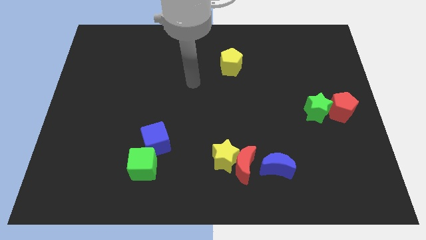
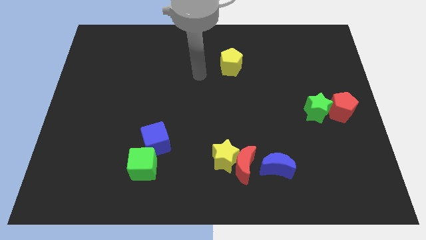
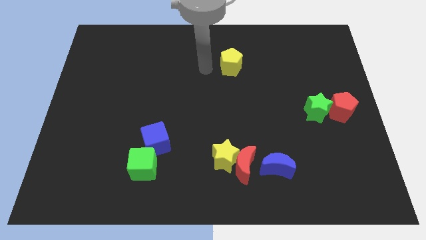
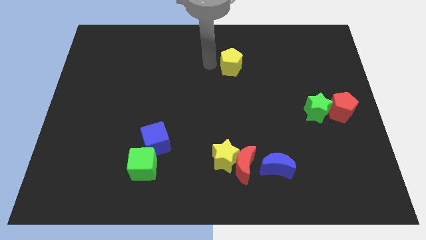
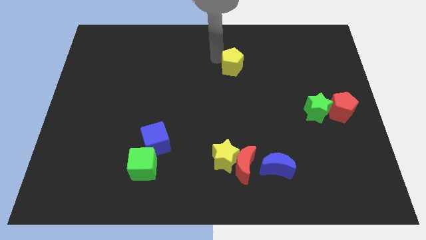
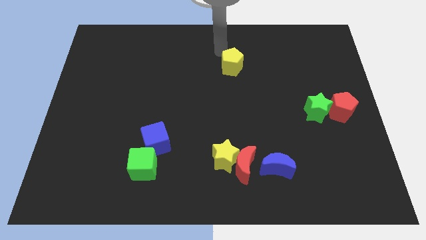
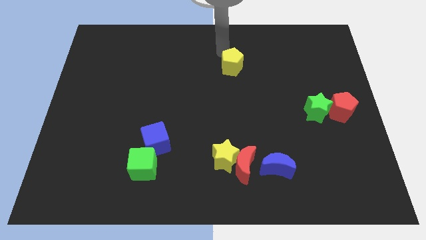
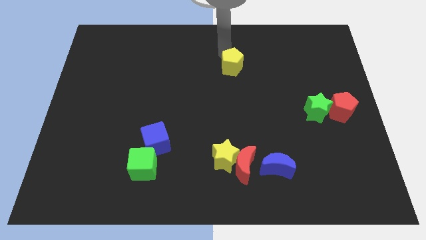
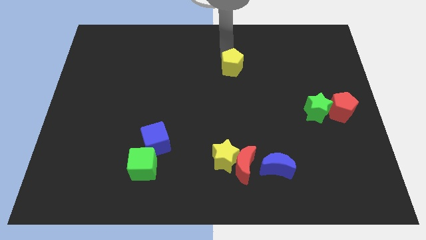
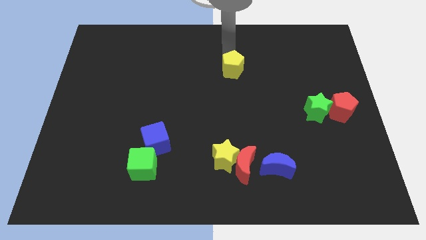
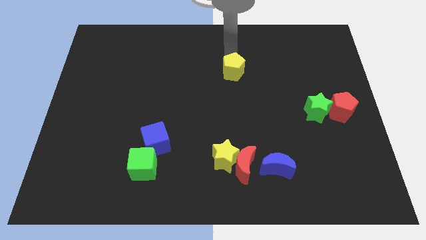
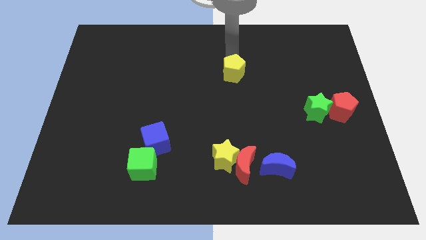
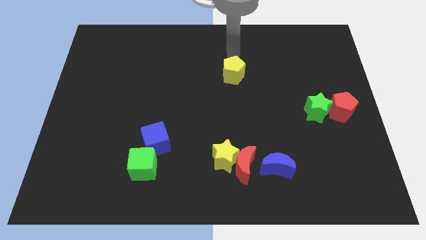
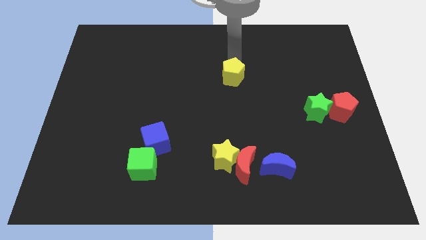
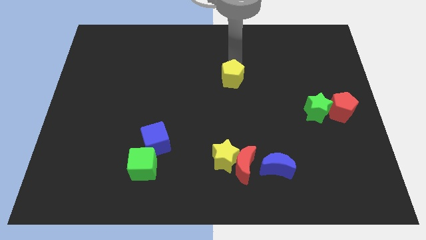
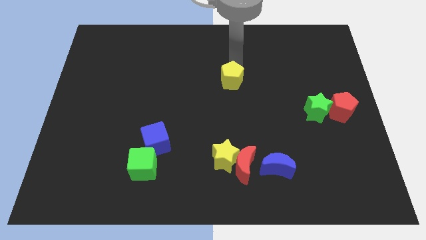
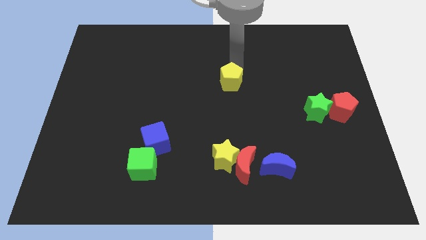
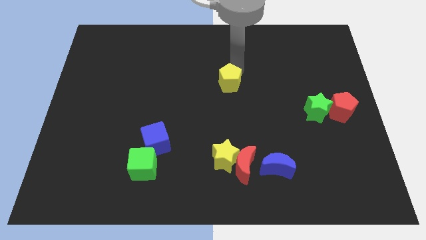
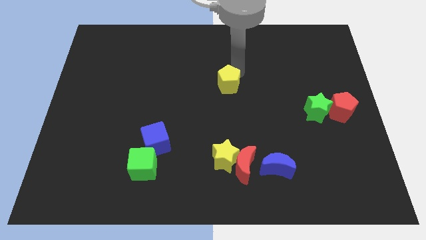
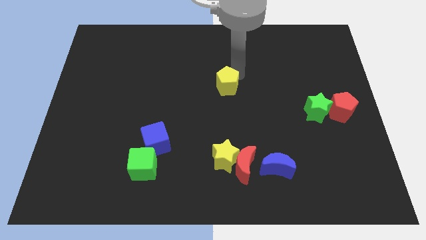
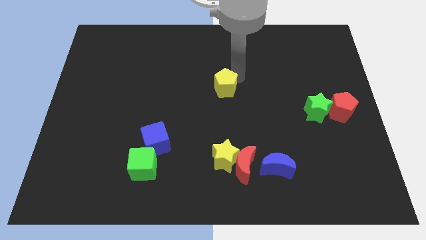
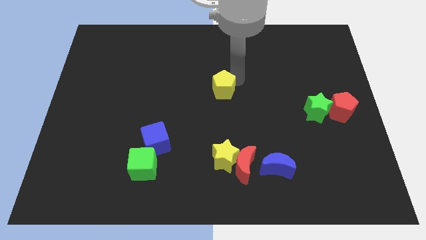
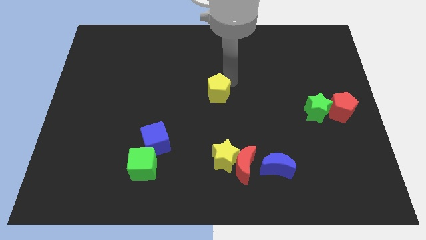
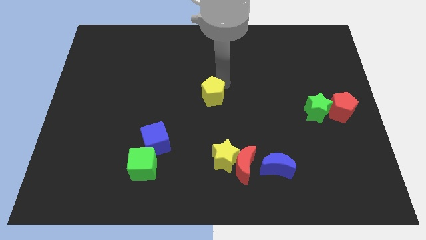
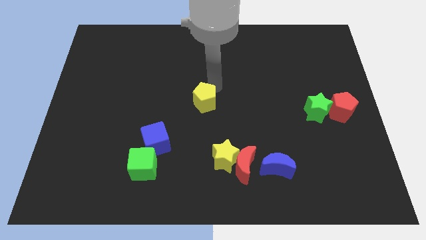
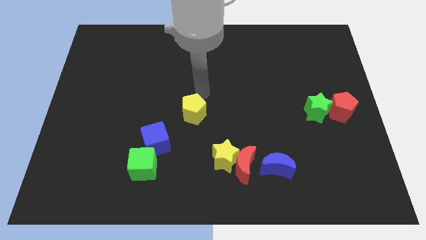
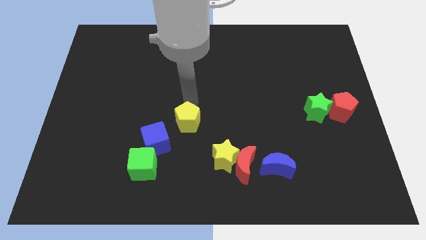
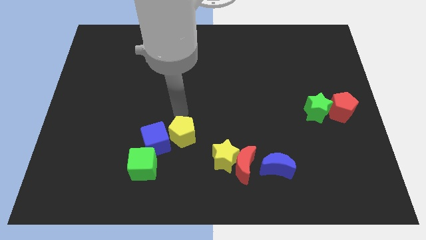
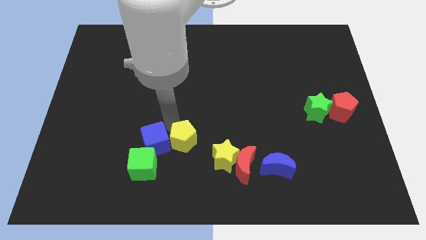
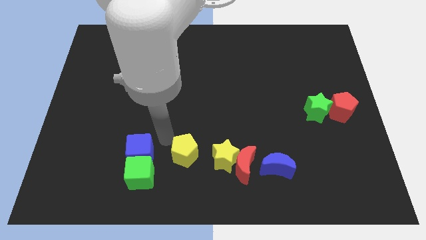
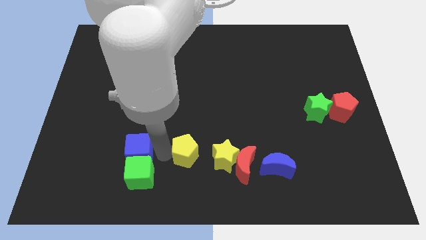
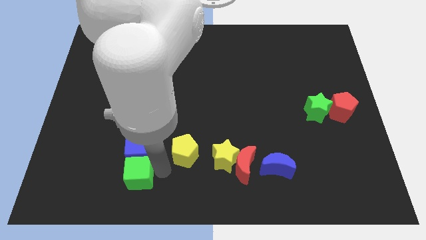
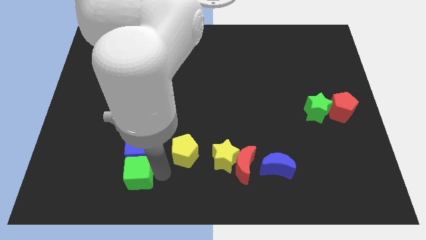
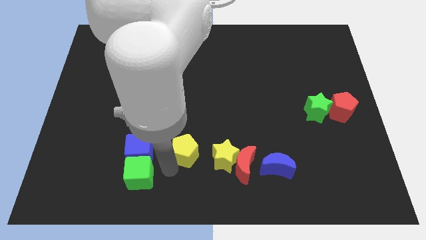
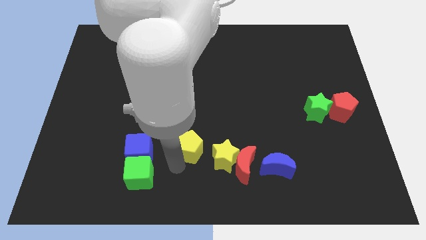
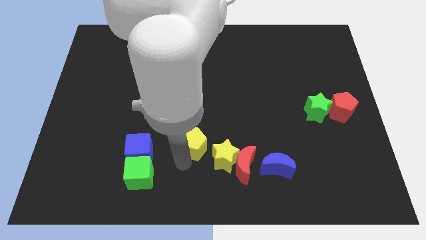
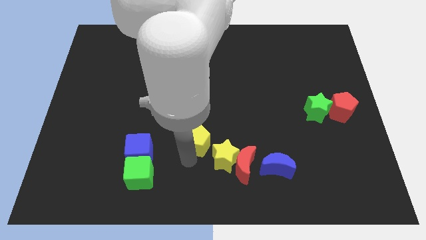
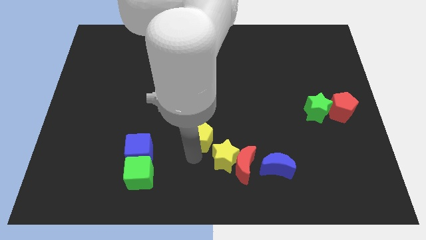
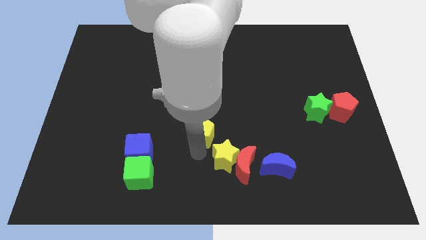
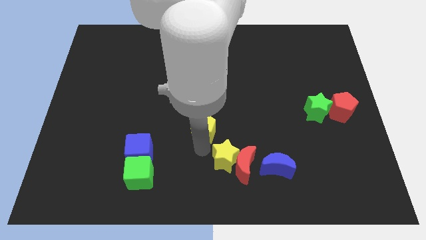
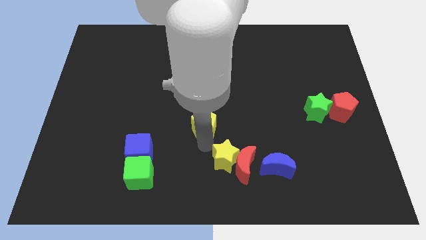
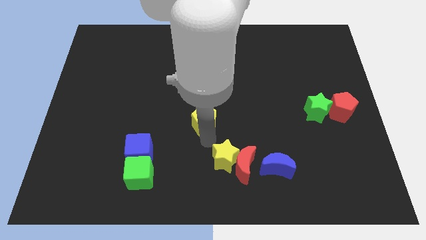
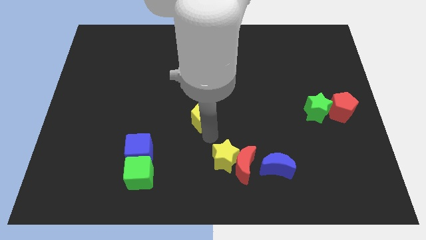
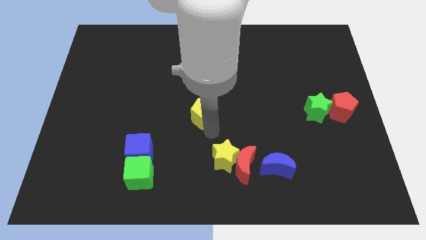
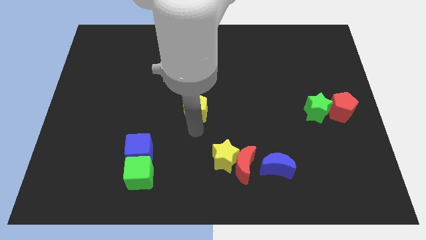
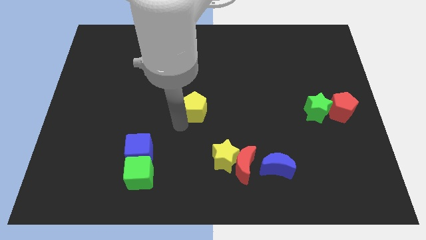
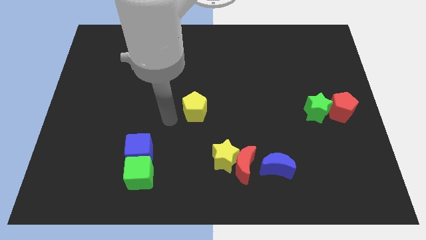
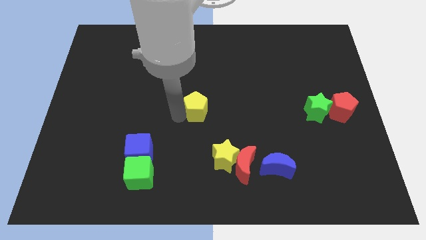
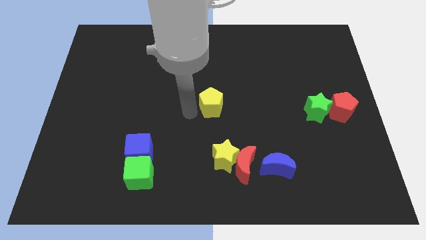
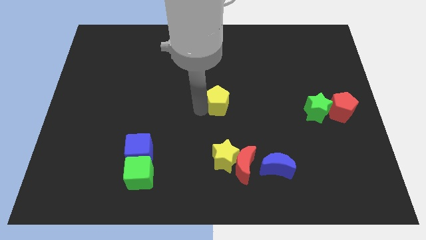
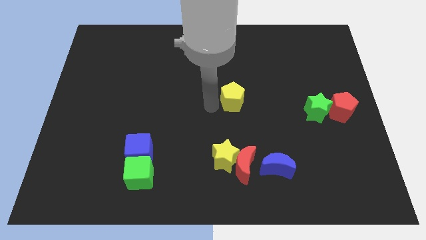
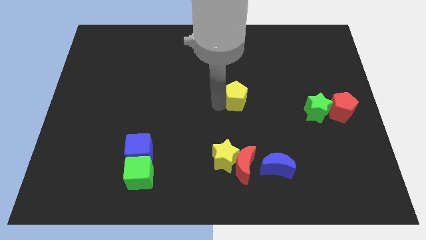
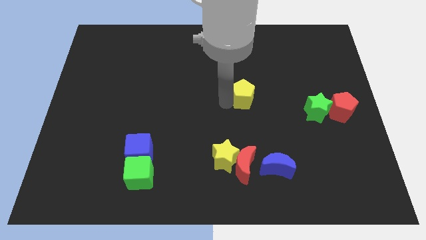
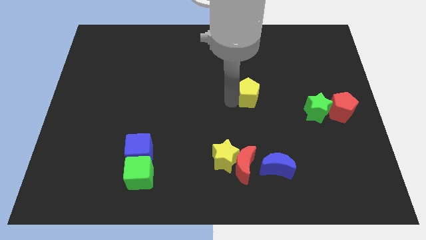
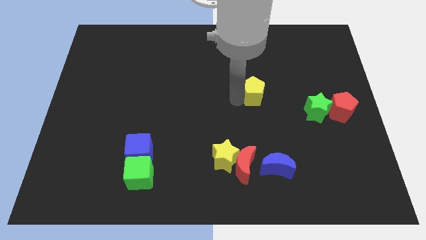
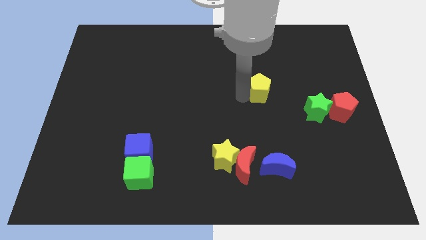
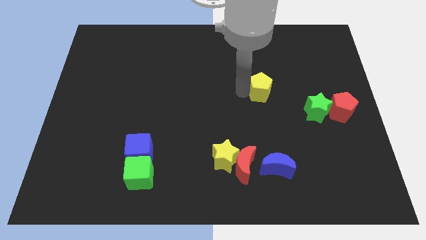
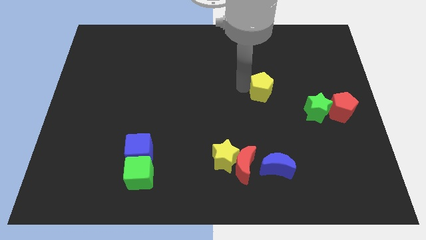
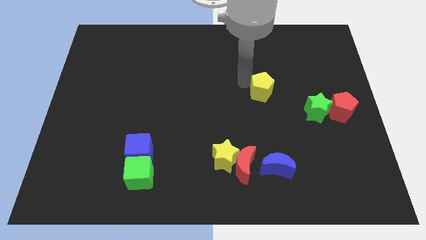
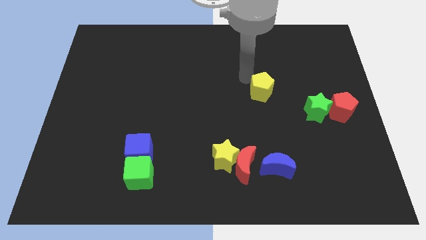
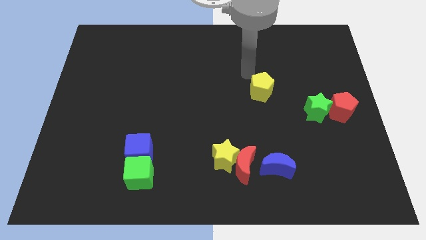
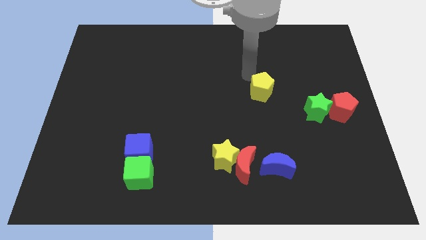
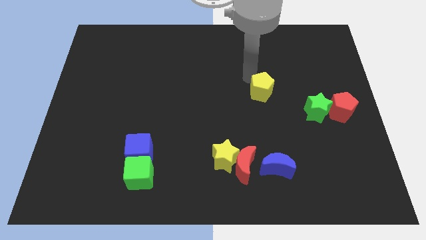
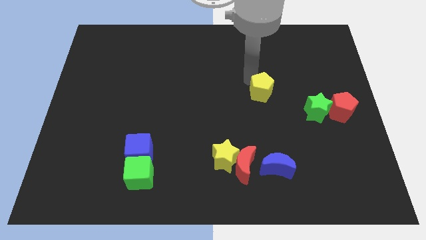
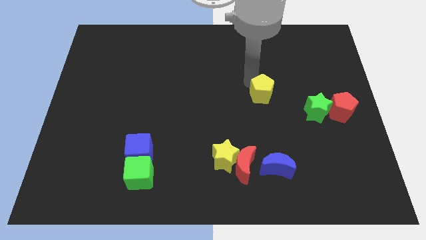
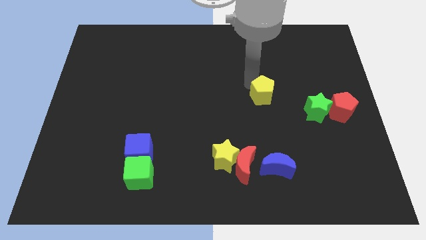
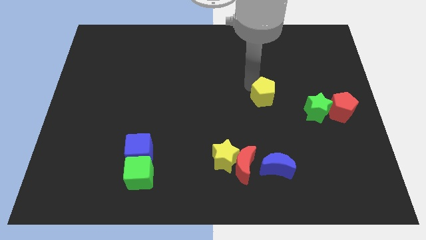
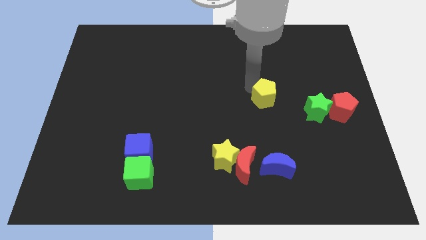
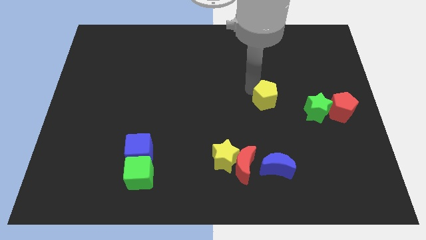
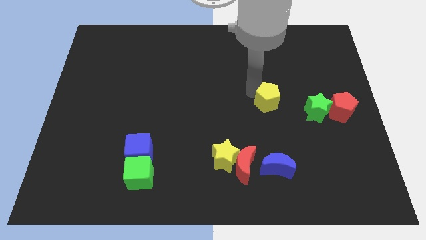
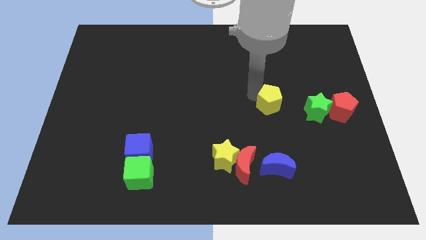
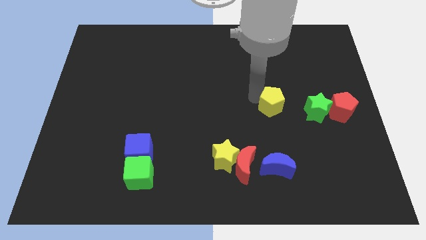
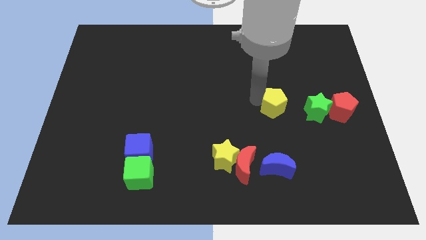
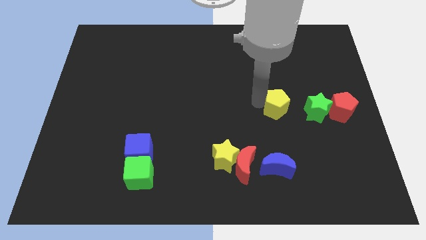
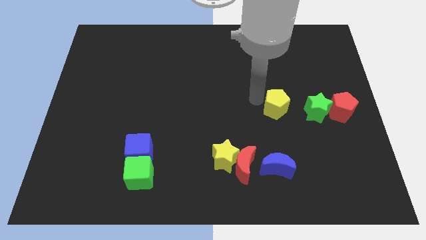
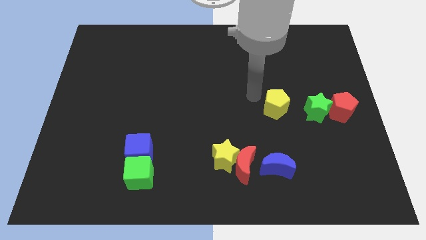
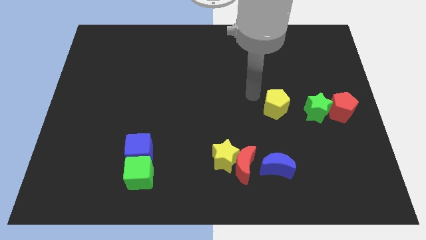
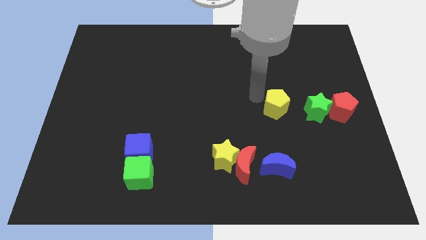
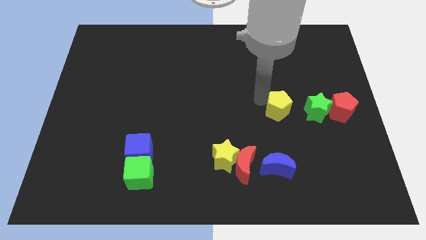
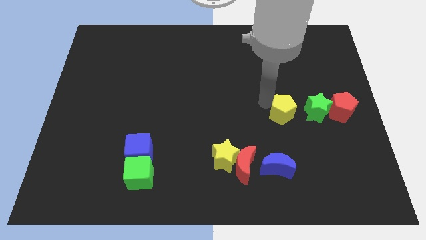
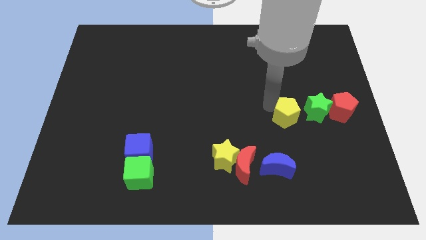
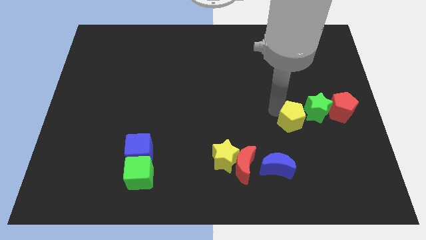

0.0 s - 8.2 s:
push the yellow pentagon diagonally downwards and right
